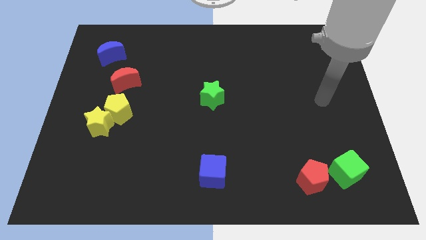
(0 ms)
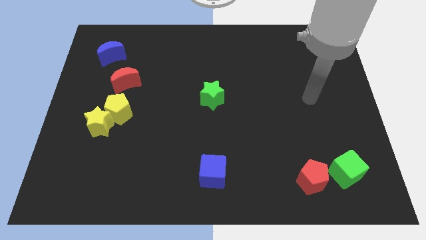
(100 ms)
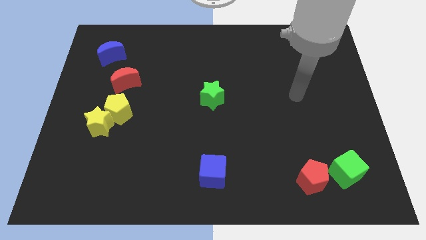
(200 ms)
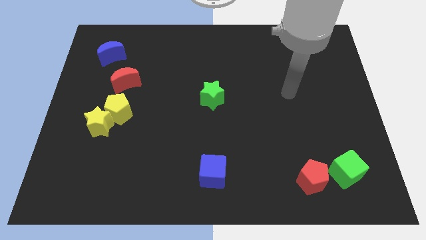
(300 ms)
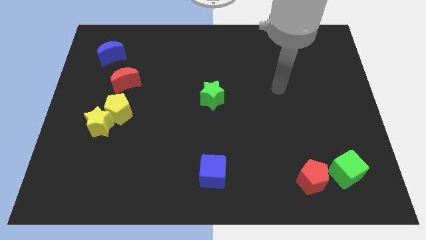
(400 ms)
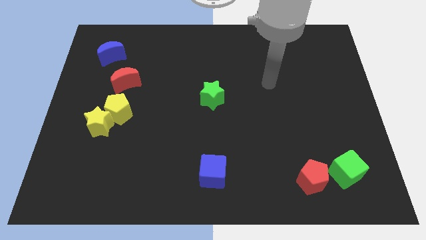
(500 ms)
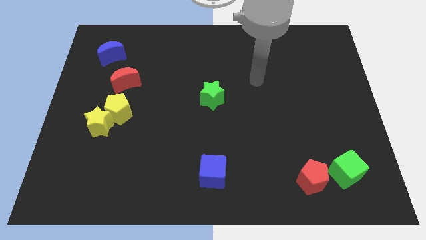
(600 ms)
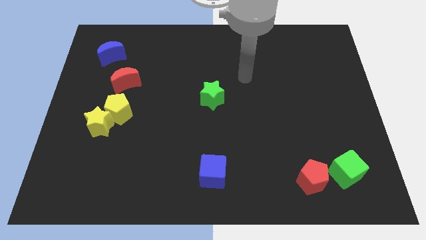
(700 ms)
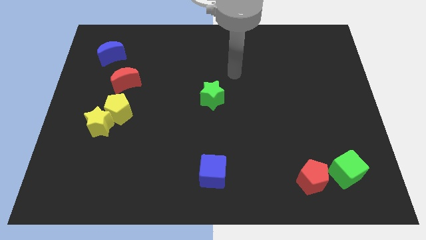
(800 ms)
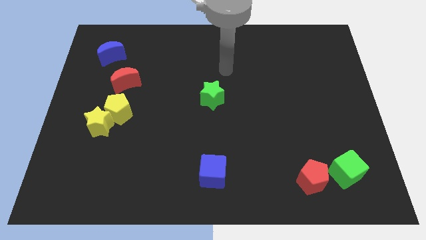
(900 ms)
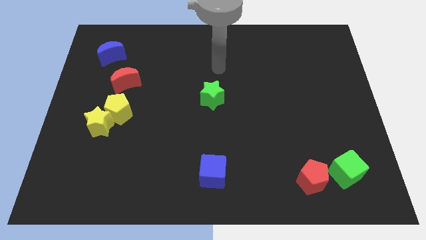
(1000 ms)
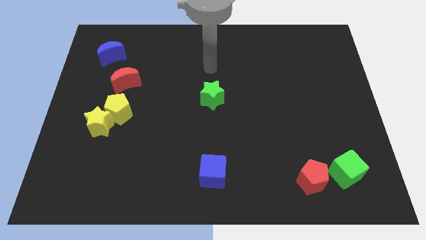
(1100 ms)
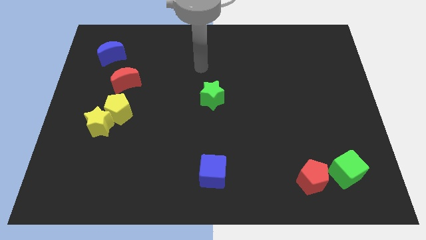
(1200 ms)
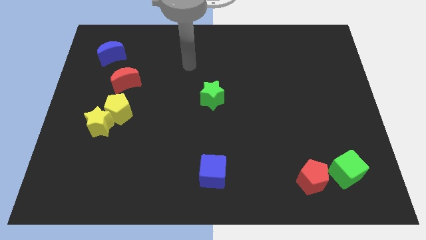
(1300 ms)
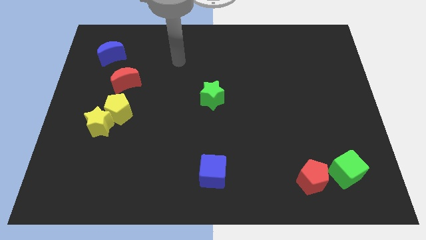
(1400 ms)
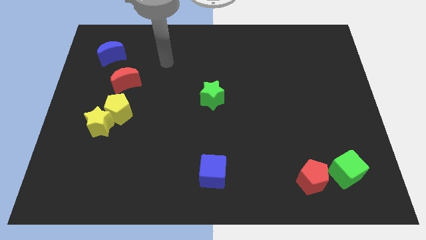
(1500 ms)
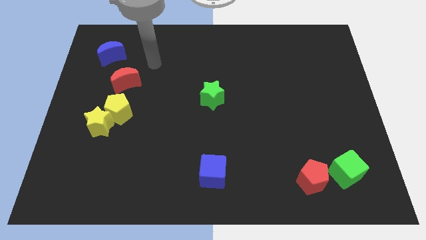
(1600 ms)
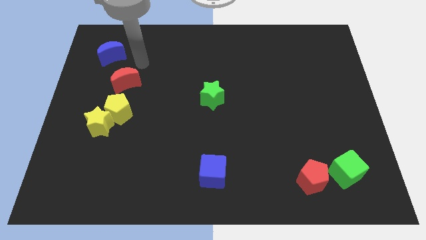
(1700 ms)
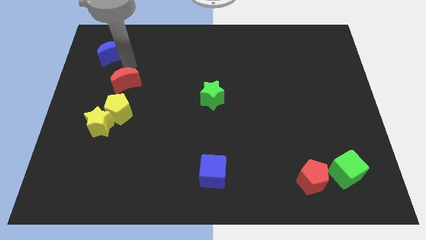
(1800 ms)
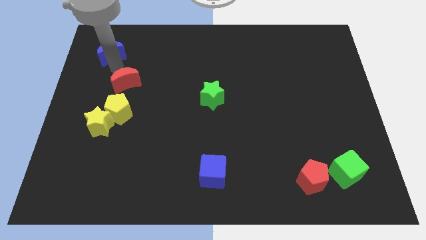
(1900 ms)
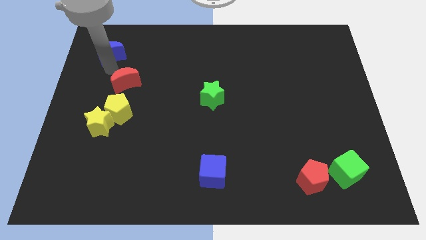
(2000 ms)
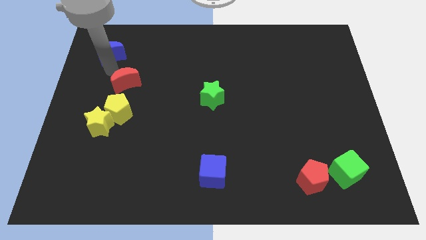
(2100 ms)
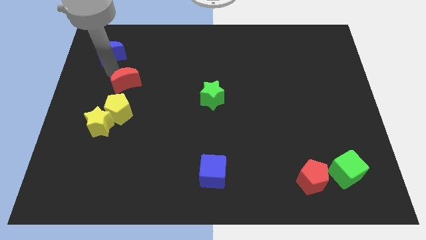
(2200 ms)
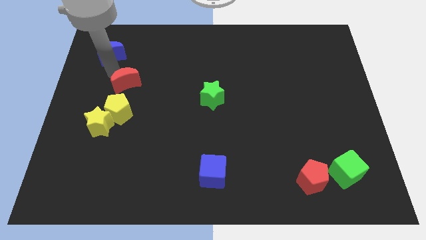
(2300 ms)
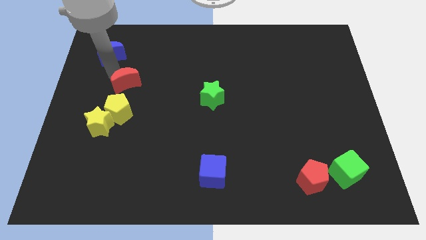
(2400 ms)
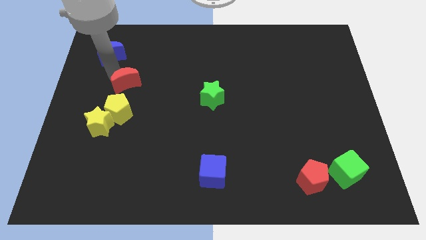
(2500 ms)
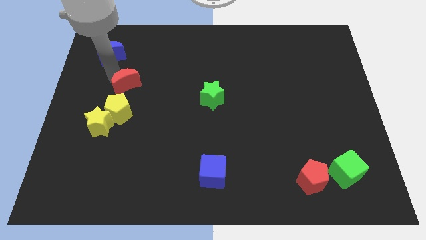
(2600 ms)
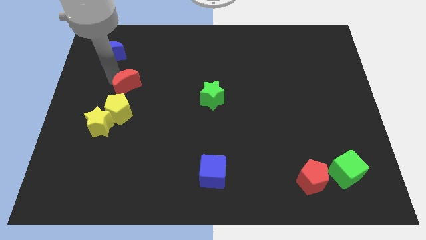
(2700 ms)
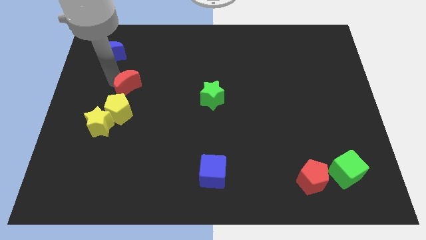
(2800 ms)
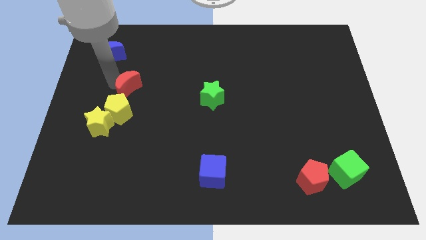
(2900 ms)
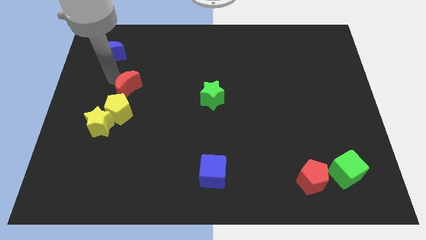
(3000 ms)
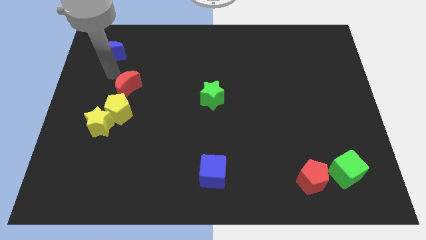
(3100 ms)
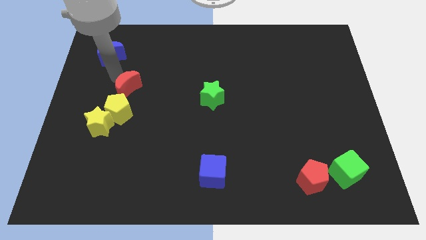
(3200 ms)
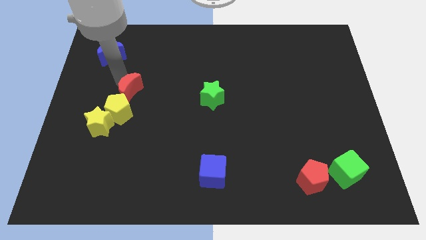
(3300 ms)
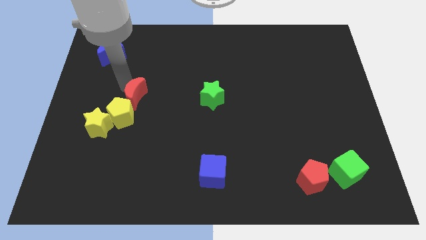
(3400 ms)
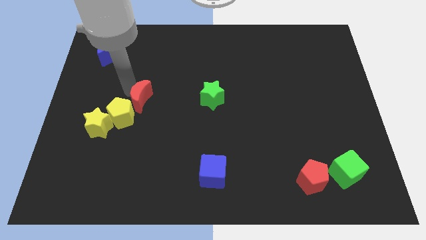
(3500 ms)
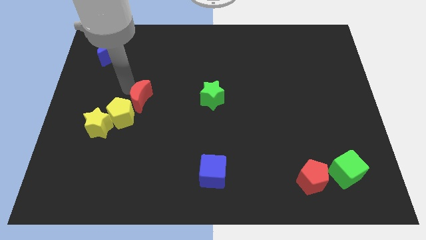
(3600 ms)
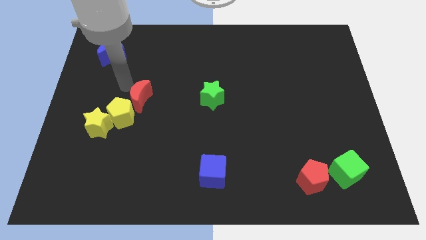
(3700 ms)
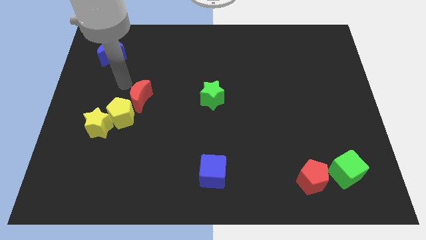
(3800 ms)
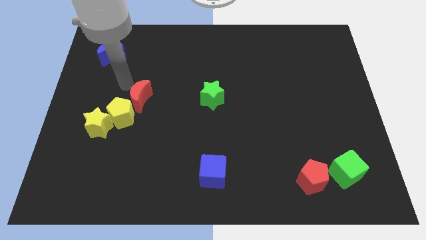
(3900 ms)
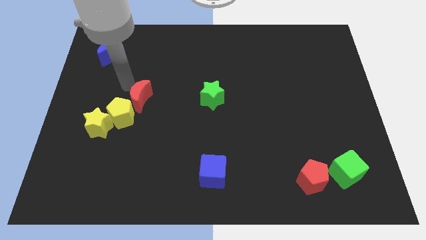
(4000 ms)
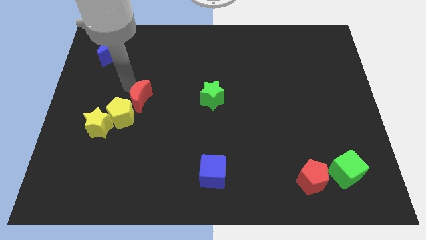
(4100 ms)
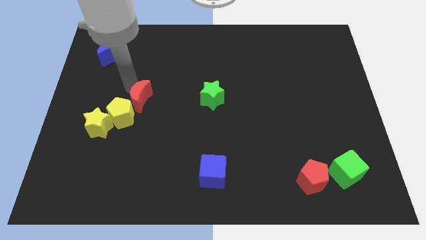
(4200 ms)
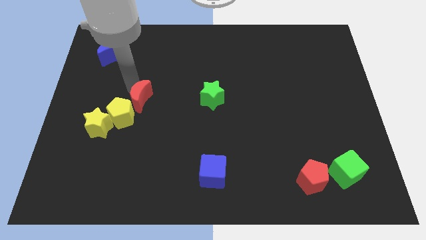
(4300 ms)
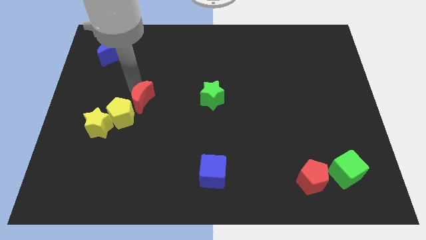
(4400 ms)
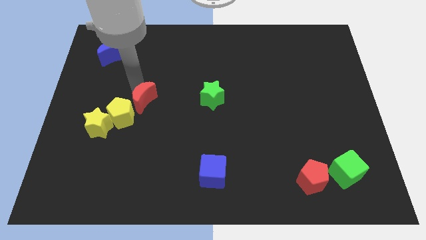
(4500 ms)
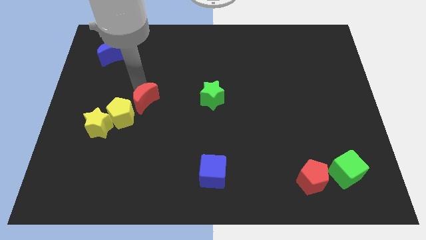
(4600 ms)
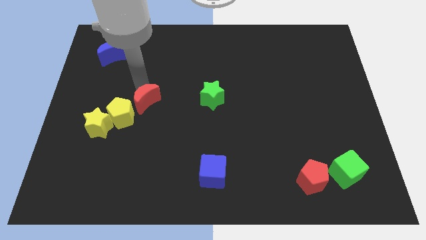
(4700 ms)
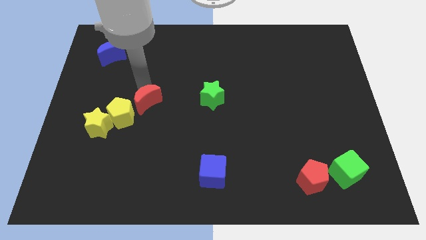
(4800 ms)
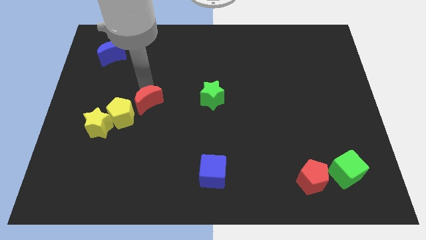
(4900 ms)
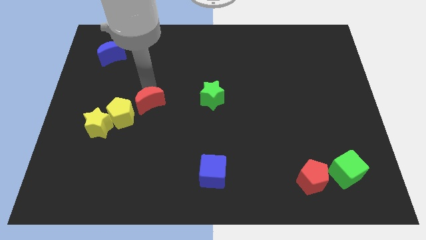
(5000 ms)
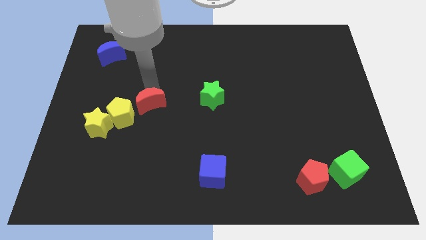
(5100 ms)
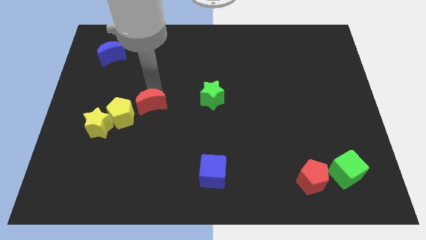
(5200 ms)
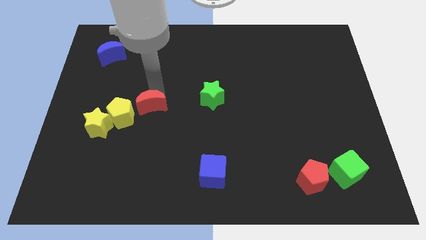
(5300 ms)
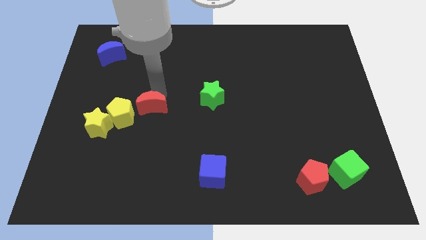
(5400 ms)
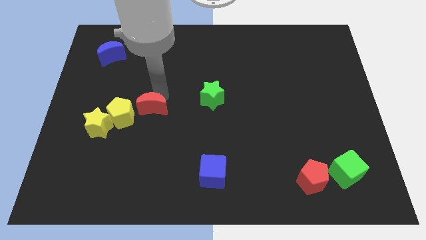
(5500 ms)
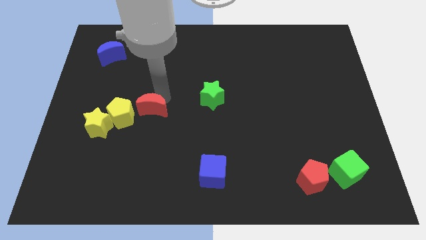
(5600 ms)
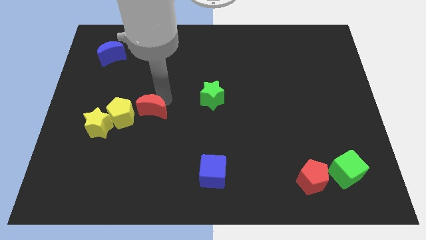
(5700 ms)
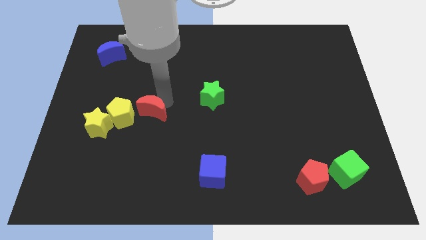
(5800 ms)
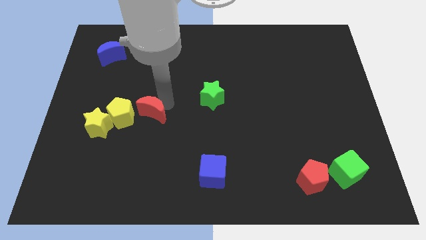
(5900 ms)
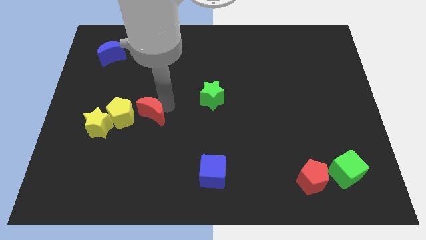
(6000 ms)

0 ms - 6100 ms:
slide the red moon a little bit downwards

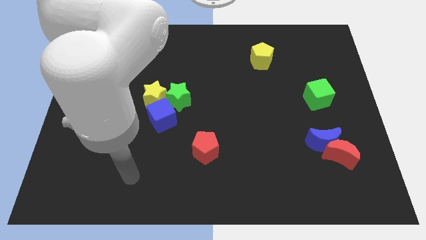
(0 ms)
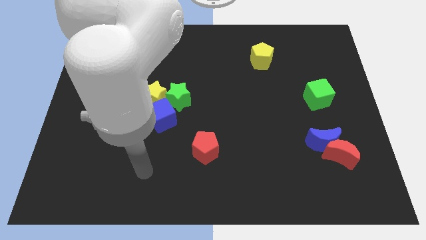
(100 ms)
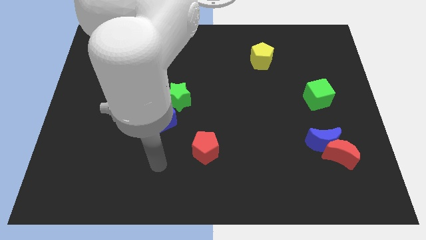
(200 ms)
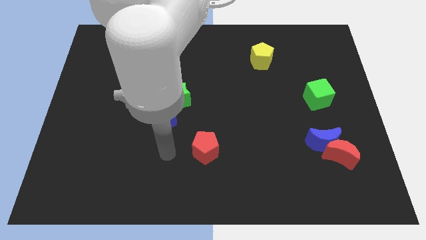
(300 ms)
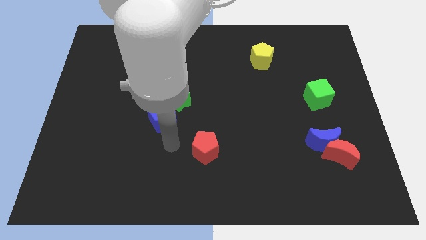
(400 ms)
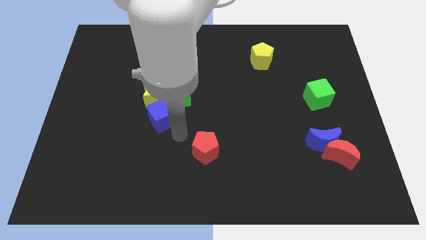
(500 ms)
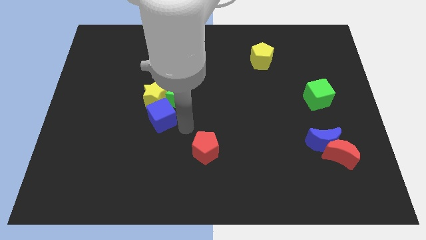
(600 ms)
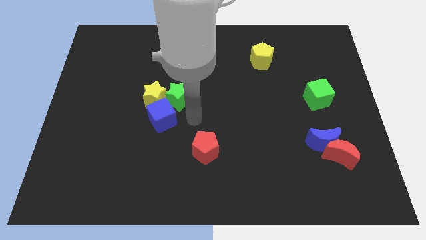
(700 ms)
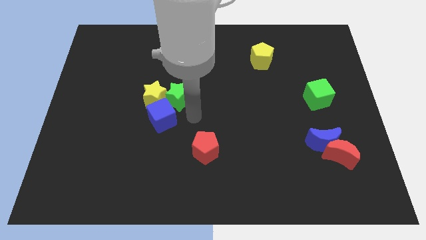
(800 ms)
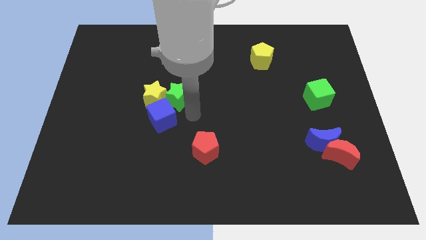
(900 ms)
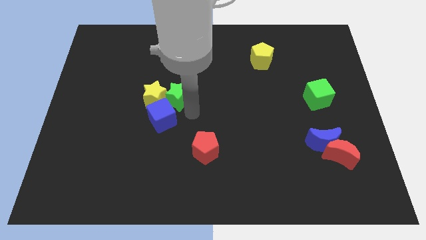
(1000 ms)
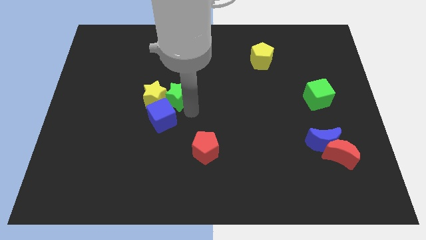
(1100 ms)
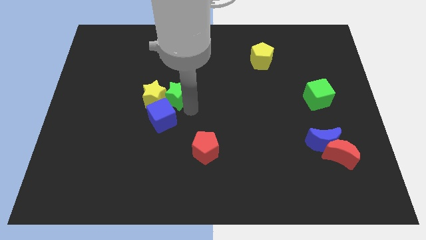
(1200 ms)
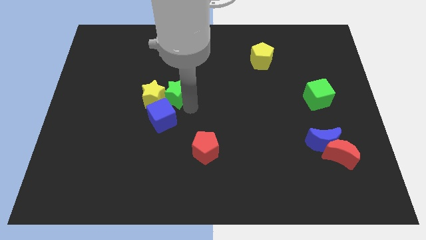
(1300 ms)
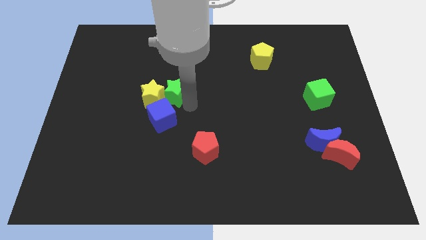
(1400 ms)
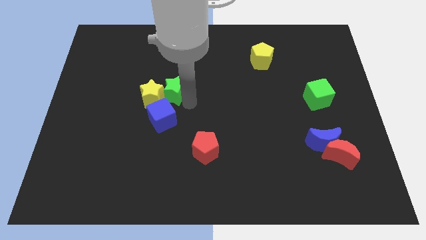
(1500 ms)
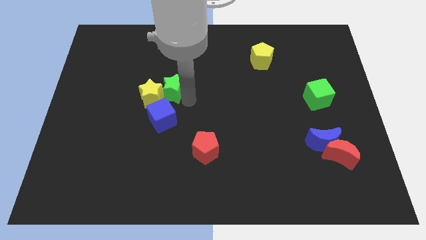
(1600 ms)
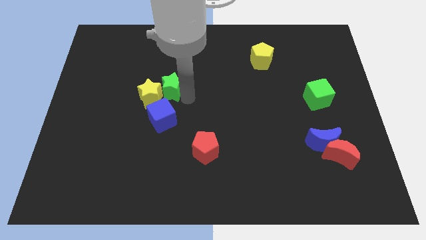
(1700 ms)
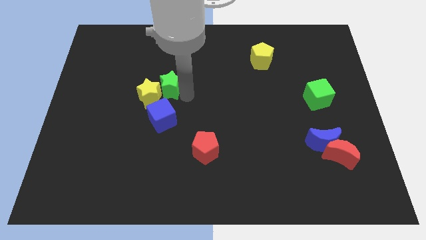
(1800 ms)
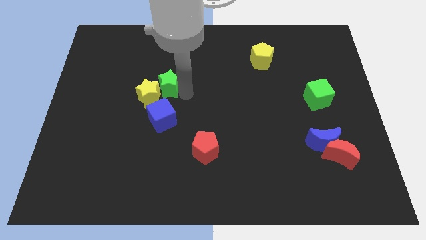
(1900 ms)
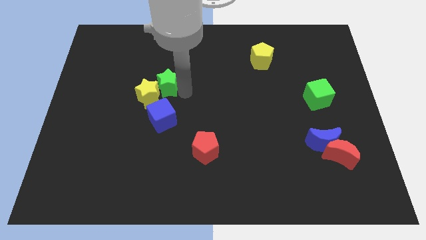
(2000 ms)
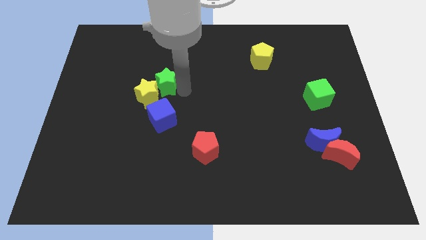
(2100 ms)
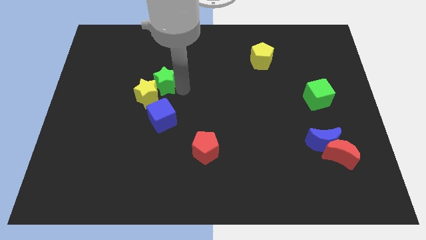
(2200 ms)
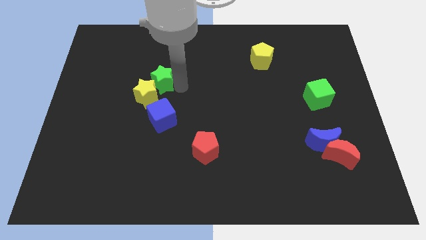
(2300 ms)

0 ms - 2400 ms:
push the green star a little upwards and then left

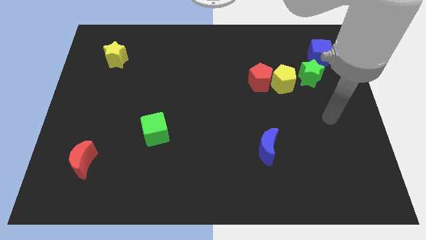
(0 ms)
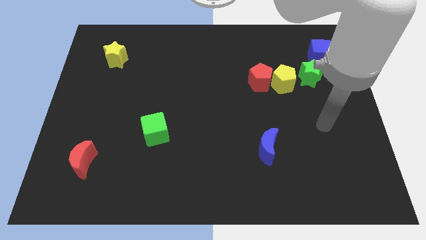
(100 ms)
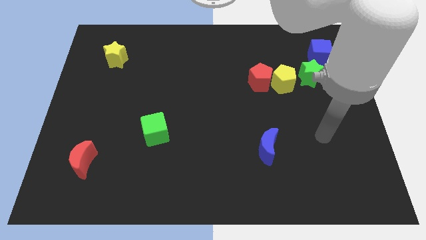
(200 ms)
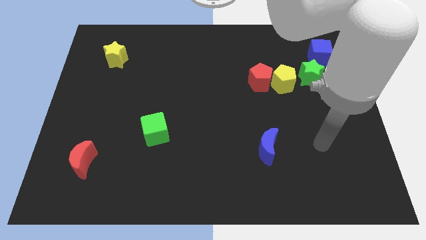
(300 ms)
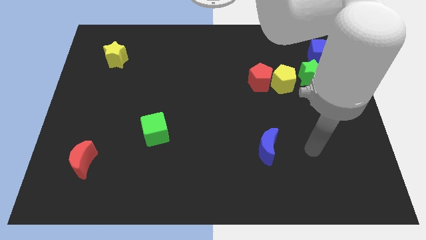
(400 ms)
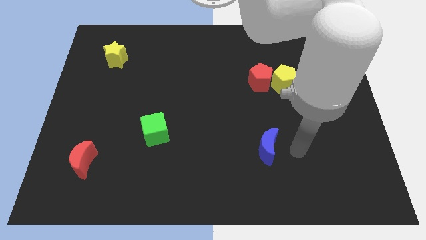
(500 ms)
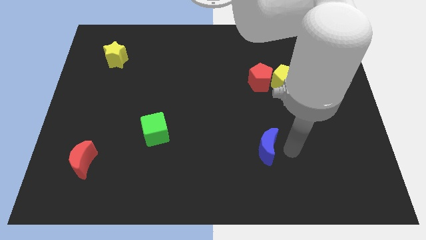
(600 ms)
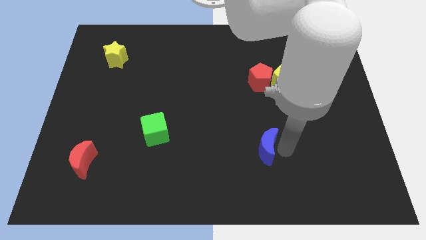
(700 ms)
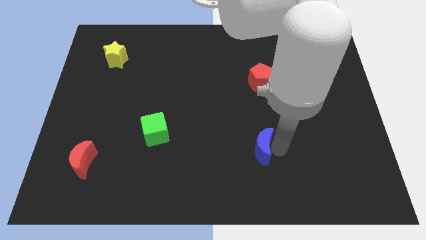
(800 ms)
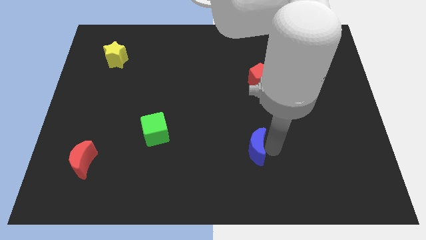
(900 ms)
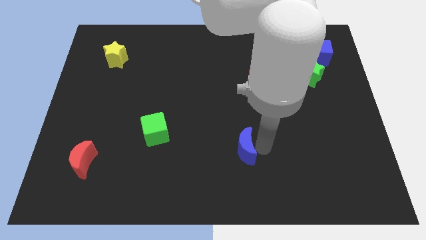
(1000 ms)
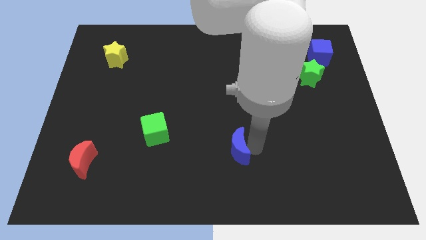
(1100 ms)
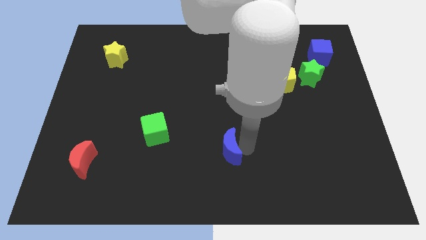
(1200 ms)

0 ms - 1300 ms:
slightly move the blue moon to the left
